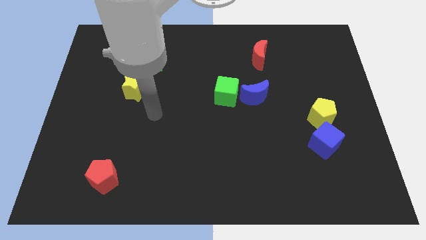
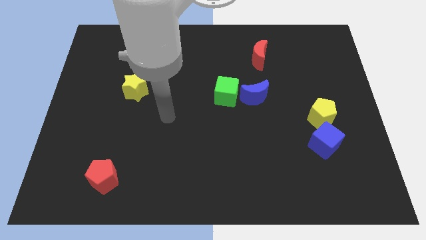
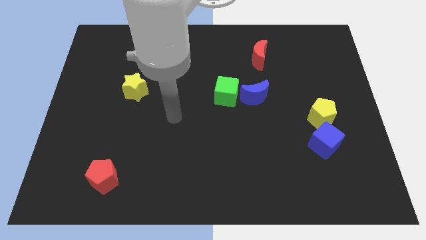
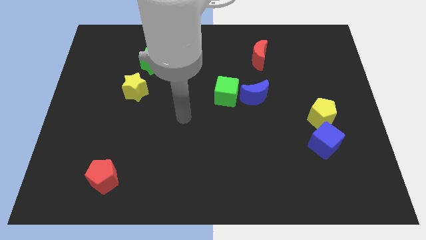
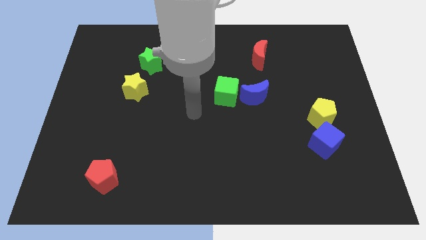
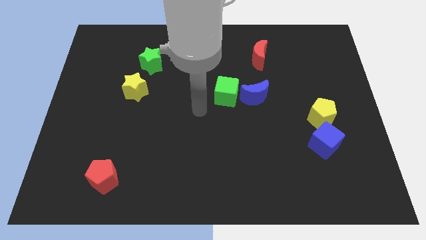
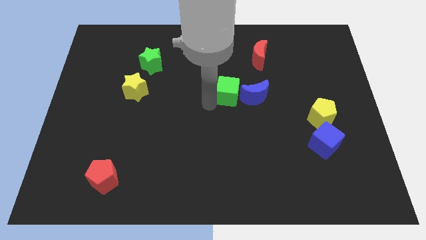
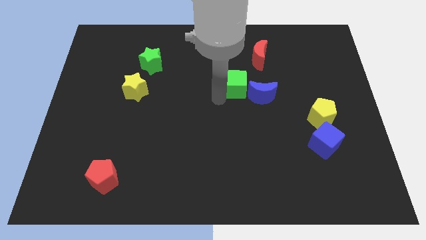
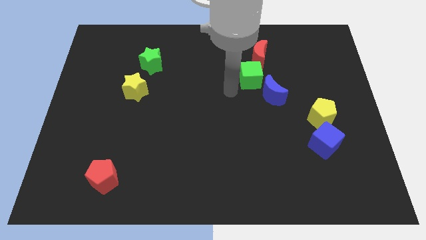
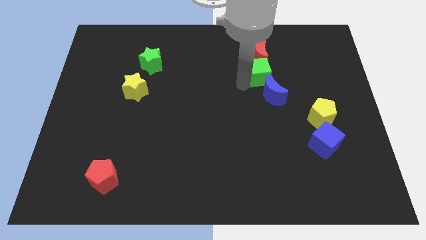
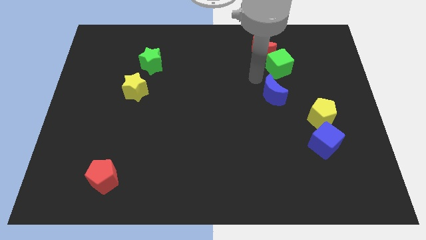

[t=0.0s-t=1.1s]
separate the blue moon from the green cube

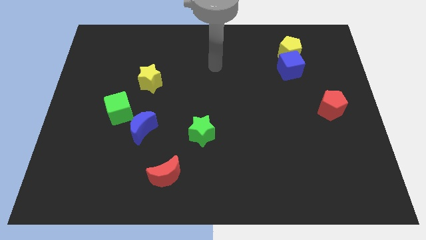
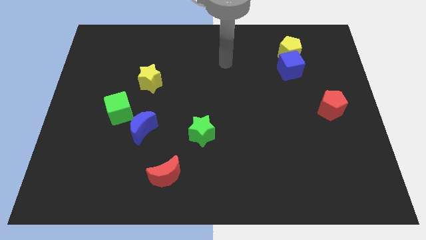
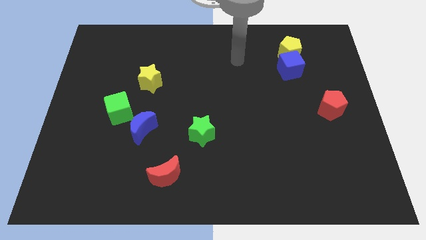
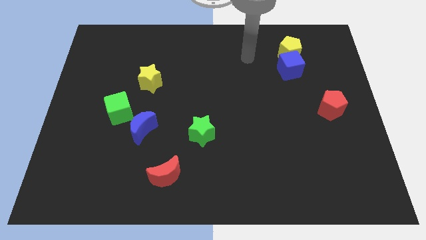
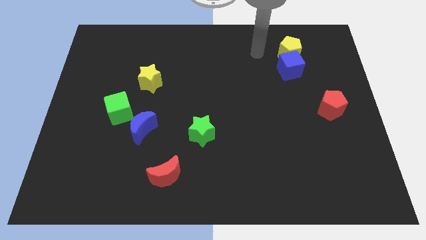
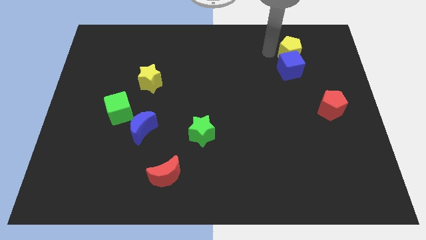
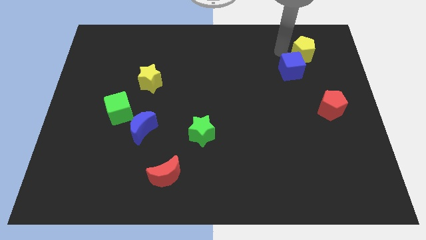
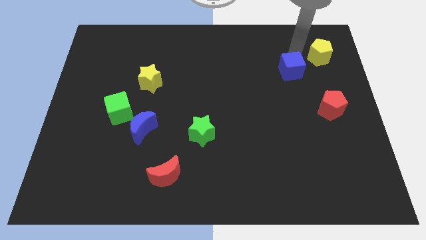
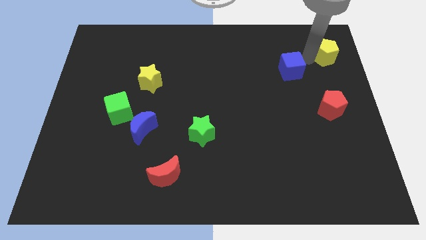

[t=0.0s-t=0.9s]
move the blue cube away from the yellow pentagon

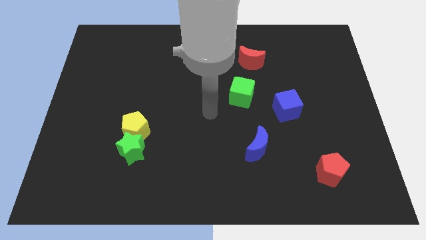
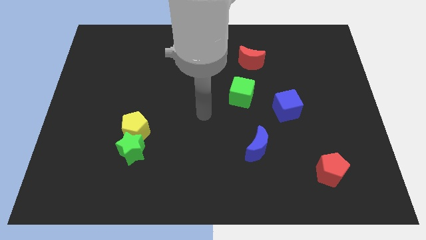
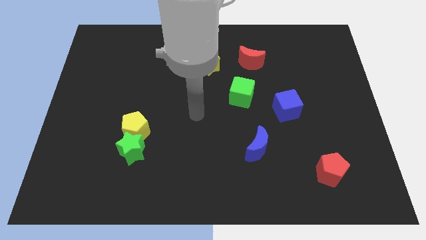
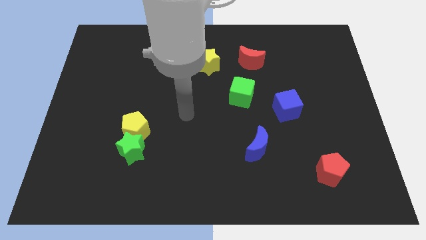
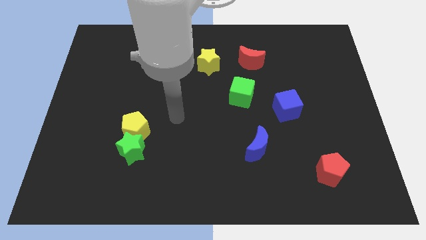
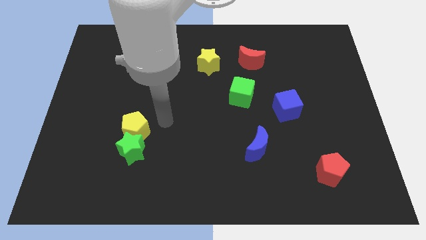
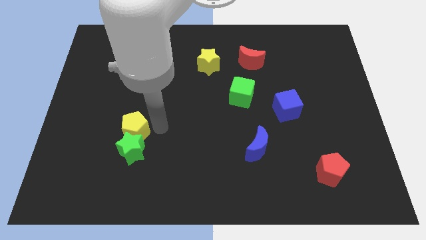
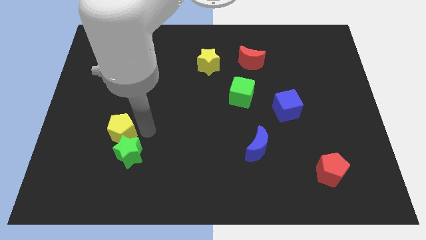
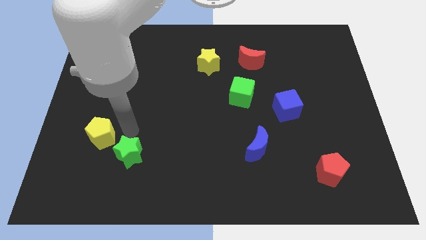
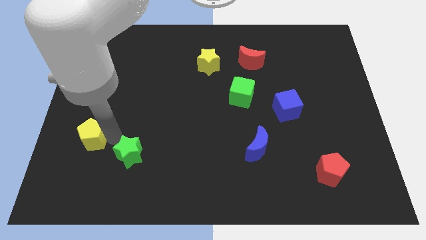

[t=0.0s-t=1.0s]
pull the green star apart from the yellow pentagon

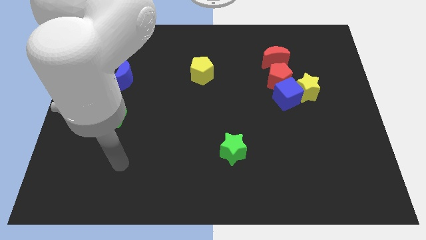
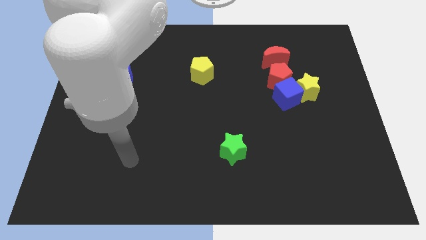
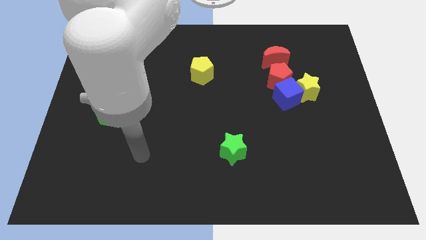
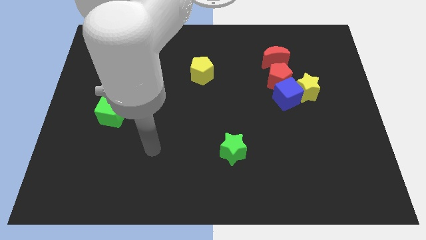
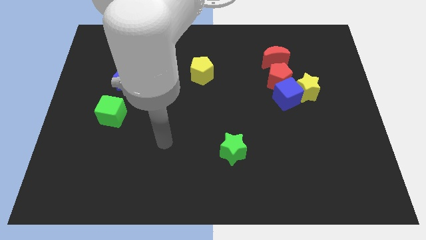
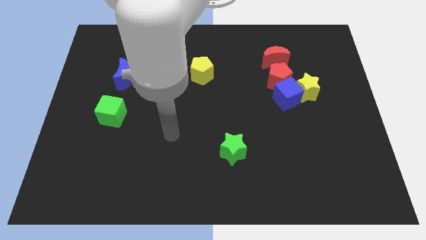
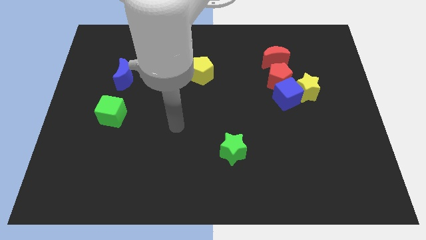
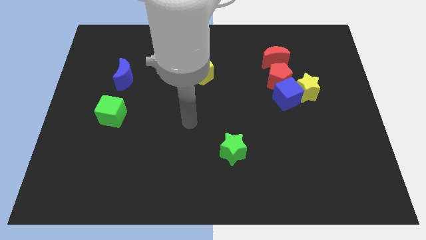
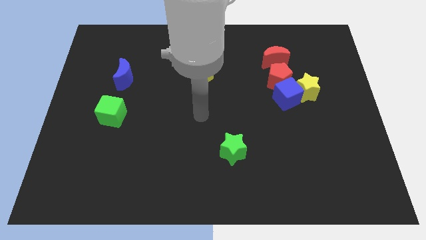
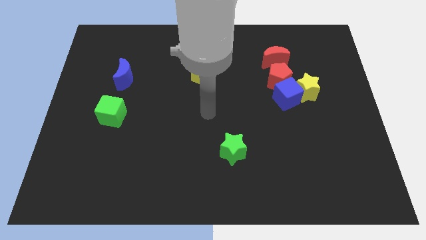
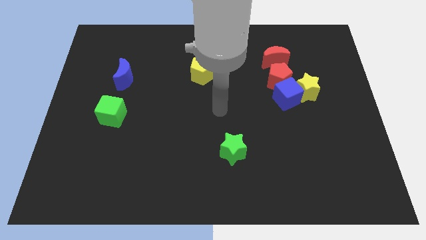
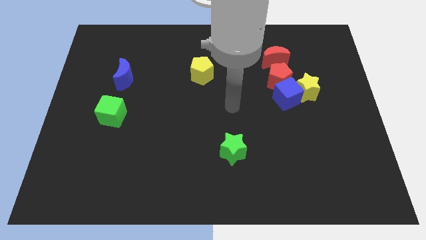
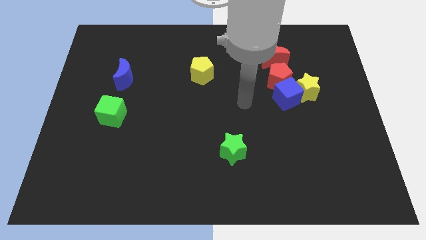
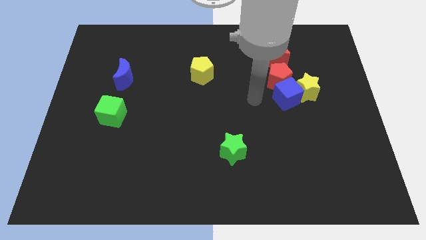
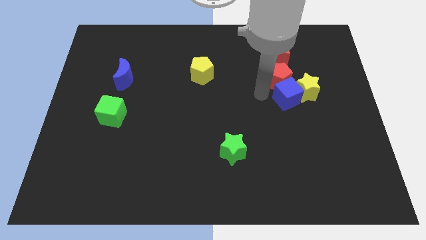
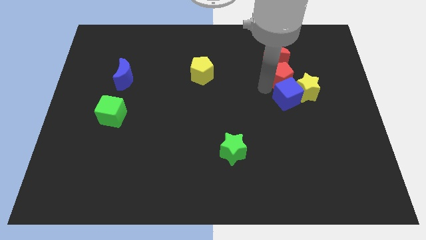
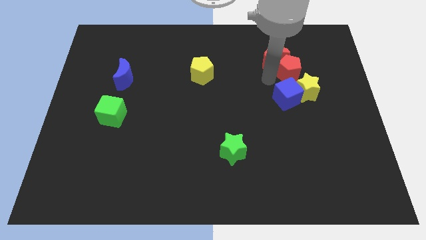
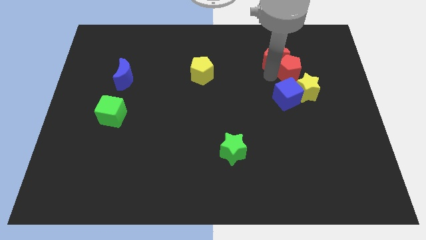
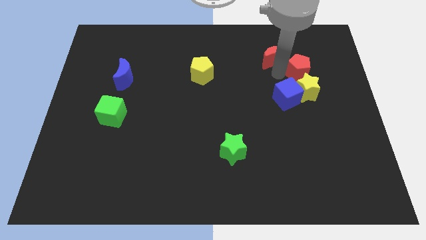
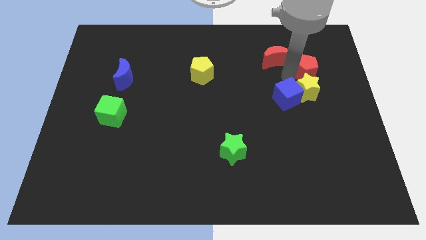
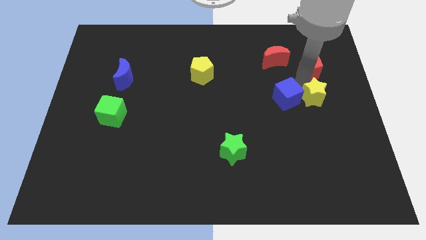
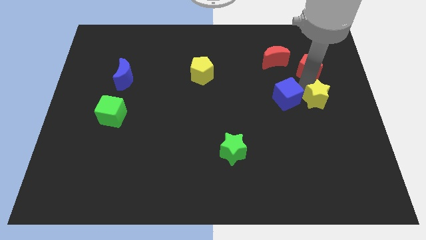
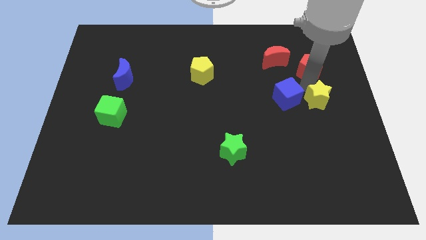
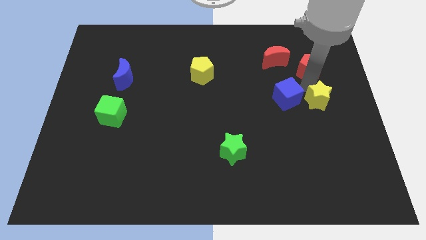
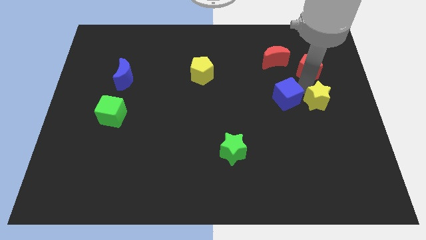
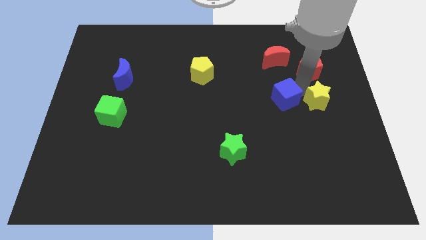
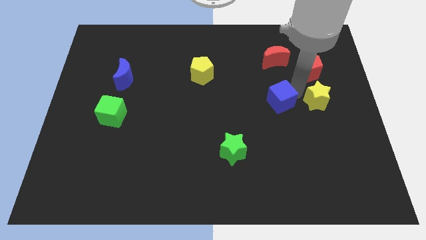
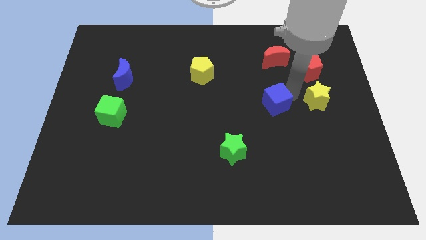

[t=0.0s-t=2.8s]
move the blue cube away from the yellow star and red pentagon

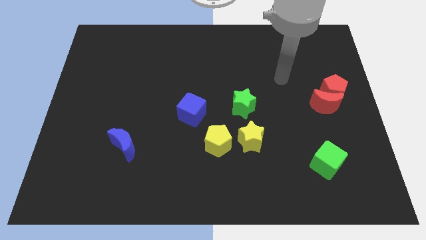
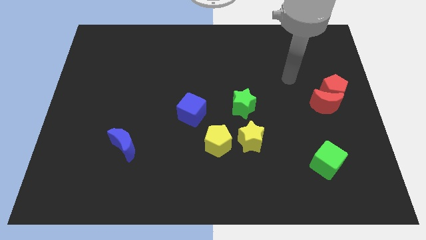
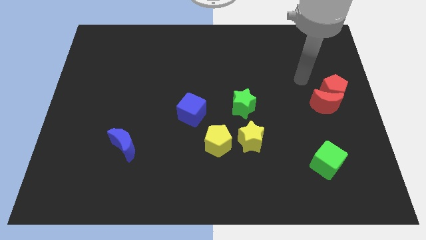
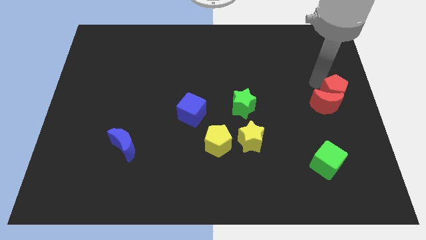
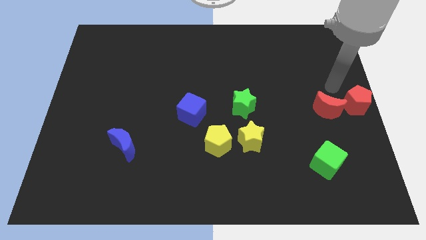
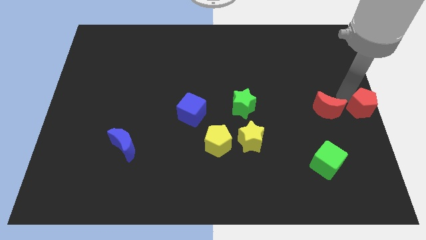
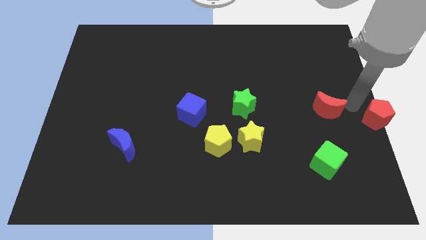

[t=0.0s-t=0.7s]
separate the red moon from the red pentagon

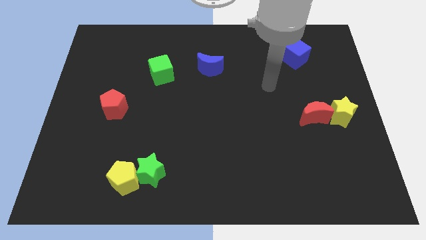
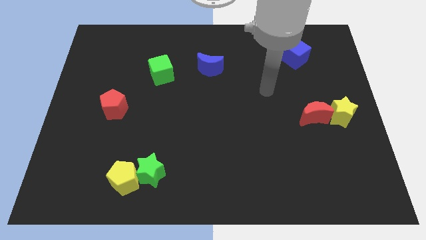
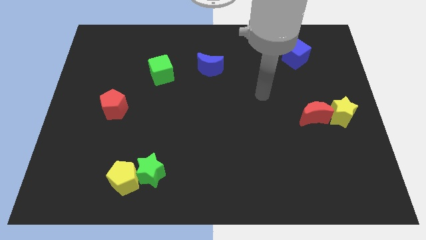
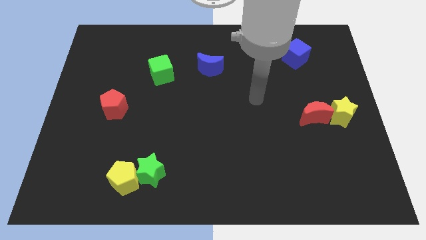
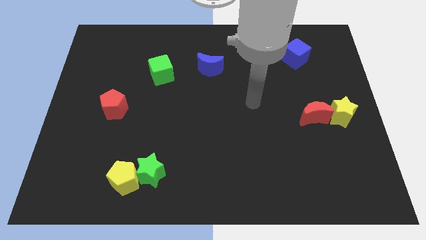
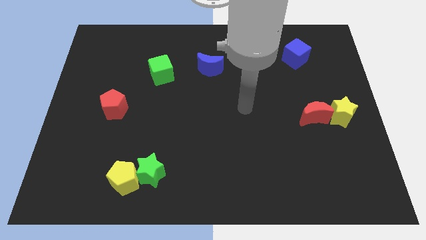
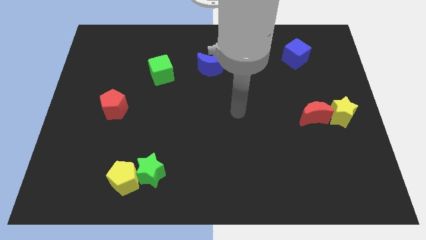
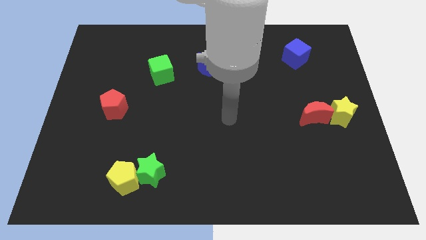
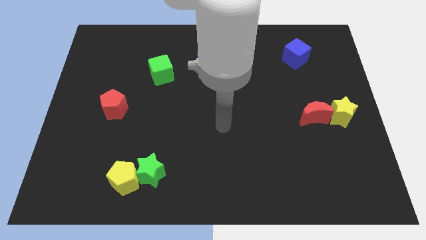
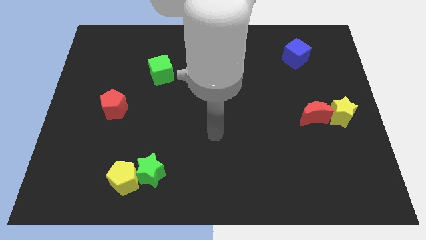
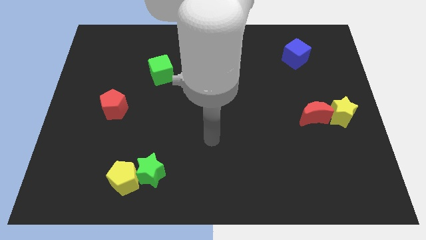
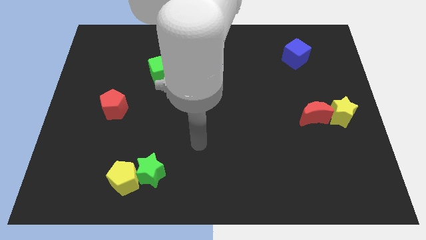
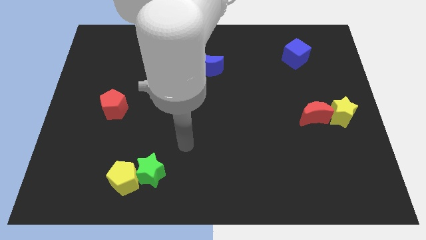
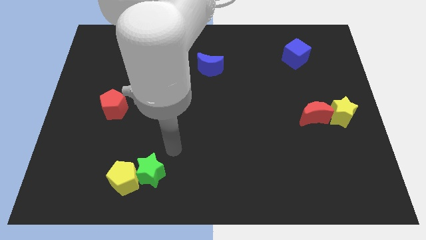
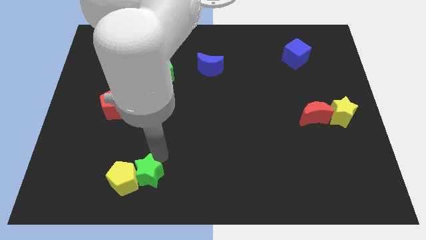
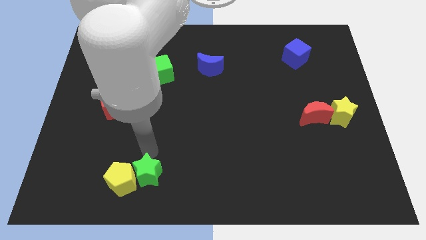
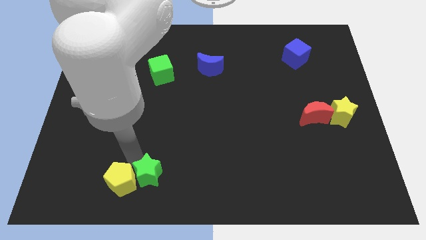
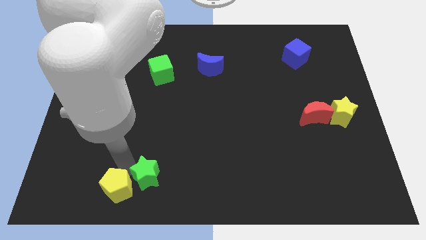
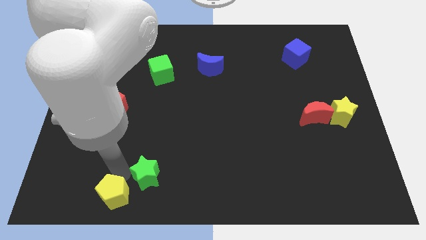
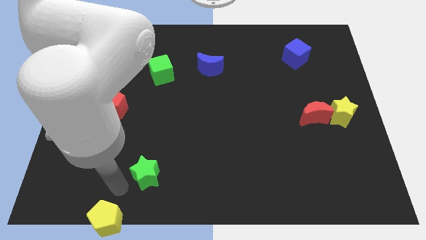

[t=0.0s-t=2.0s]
separate the green star from the yellow pentagon

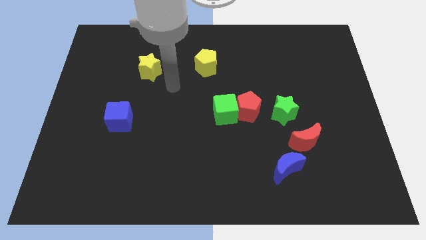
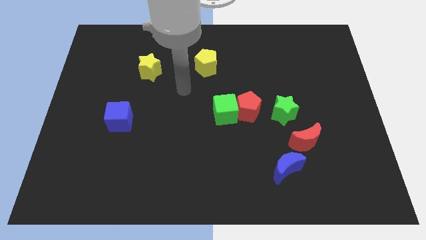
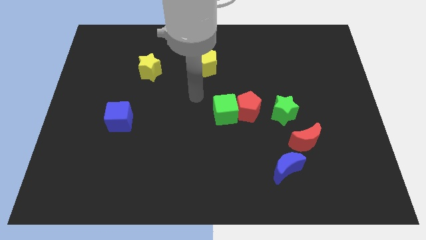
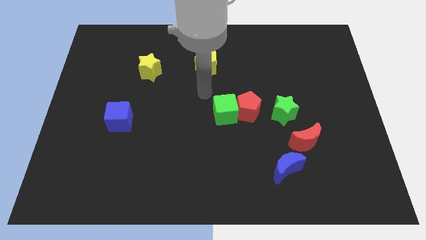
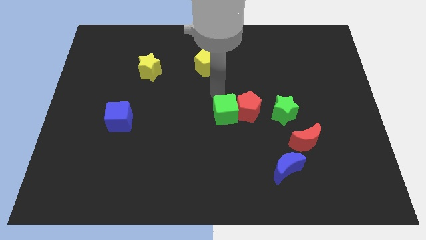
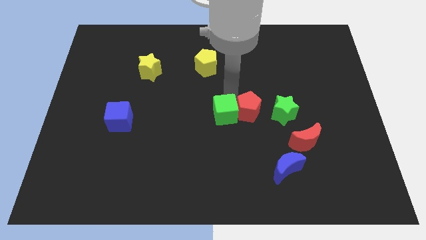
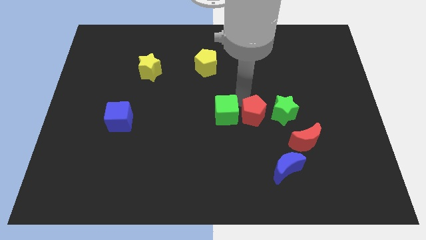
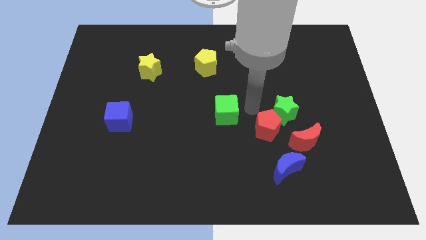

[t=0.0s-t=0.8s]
separate the green cube from the red pentagon

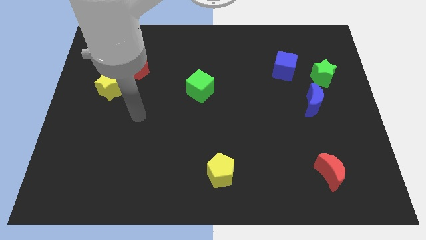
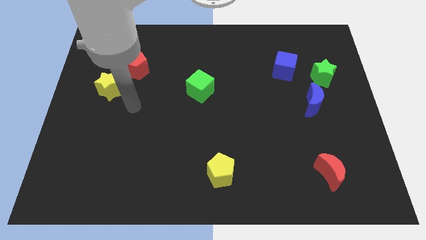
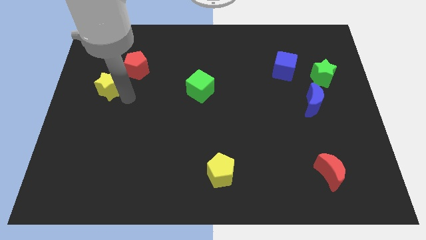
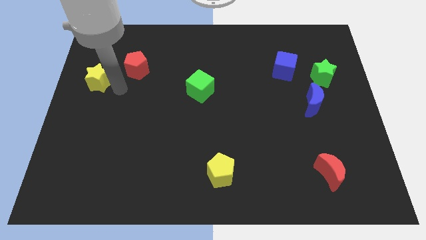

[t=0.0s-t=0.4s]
separate the red pentagon from the yellow star
